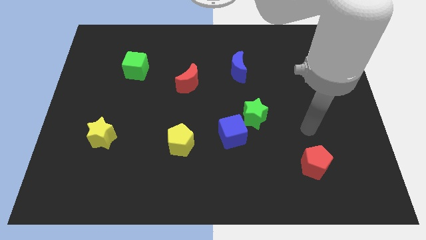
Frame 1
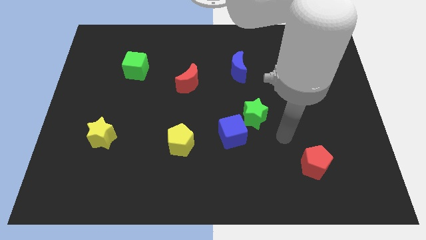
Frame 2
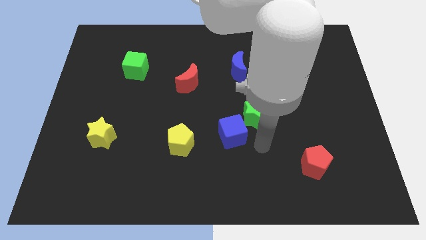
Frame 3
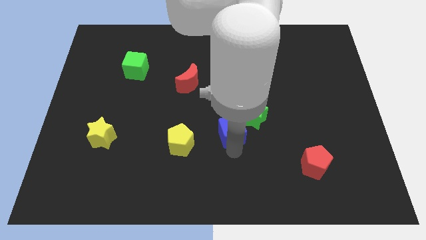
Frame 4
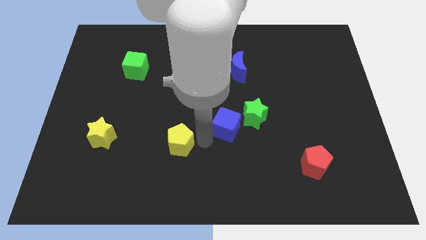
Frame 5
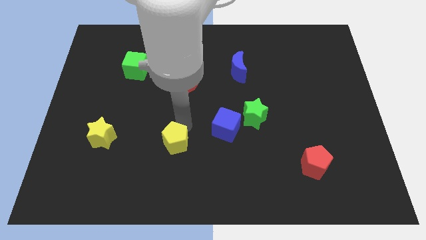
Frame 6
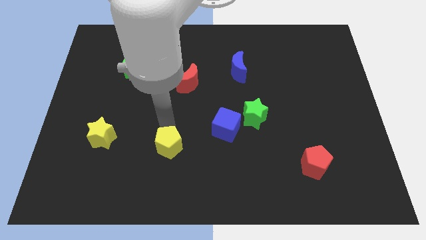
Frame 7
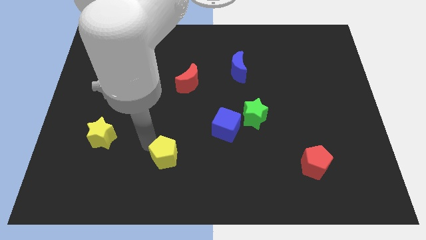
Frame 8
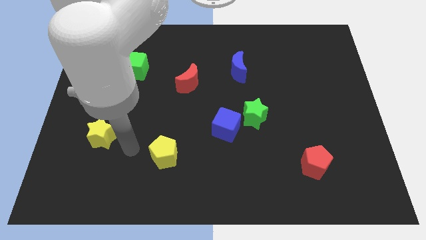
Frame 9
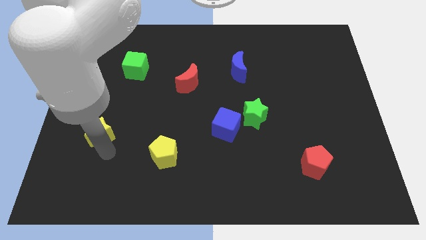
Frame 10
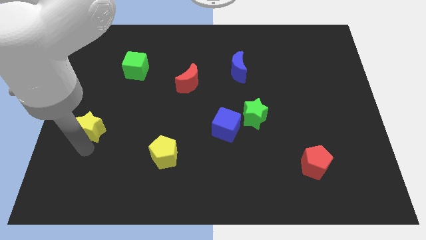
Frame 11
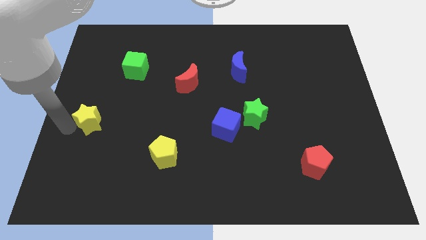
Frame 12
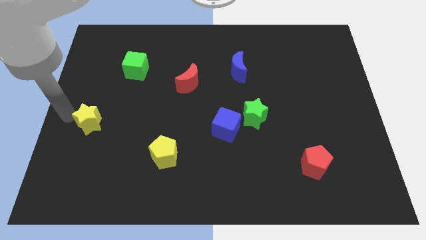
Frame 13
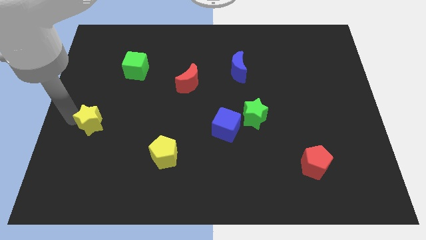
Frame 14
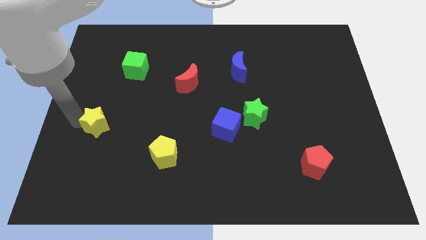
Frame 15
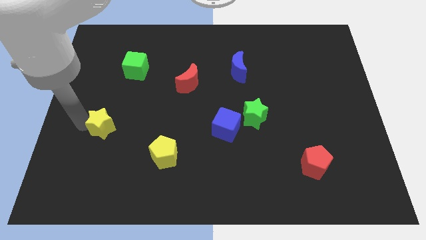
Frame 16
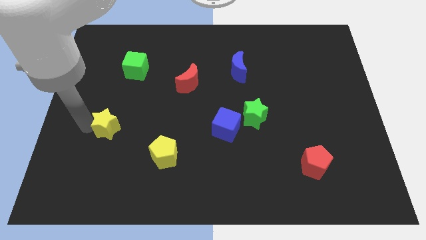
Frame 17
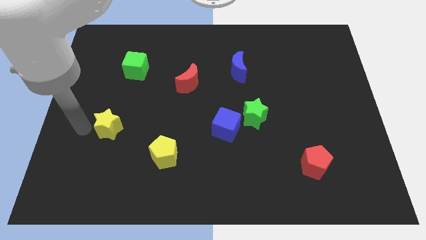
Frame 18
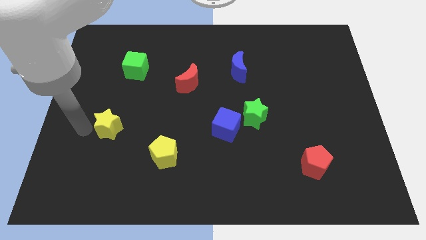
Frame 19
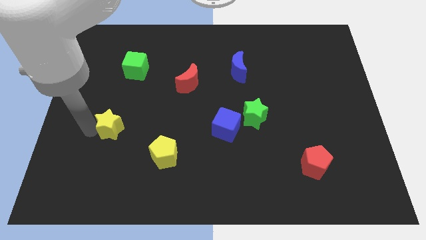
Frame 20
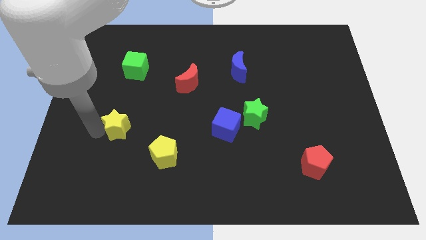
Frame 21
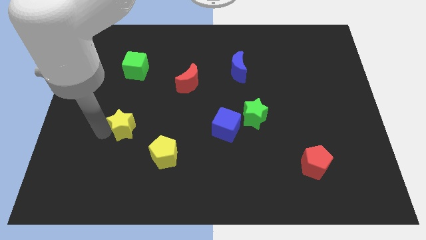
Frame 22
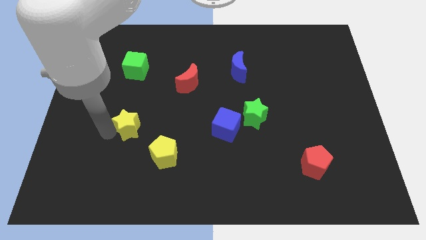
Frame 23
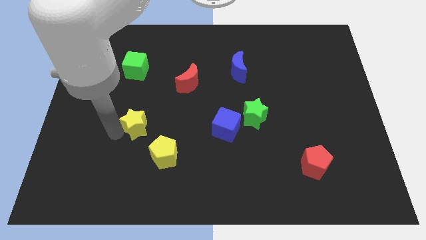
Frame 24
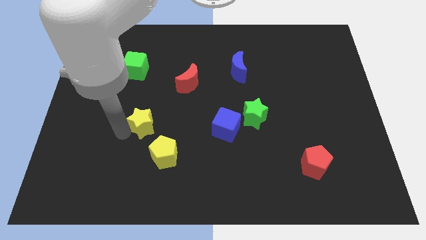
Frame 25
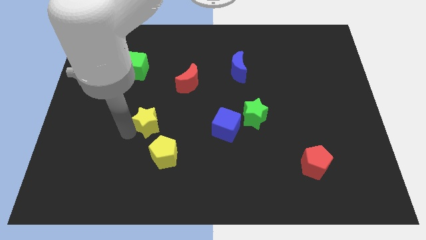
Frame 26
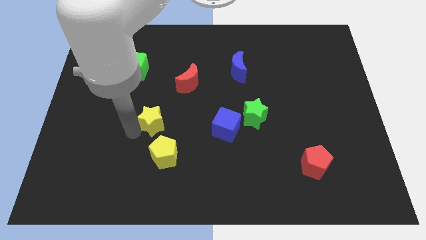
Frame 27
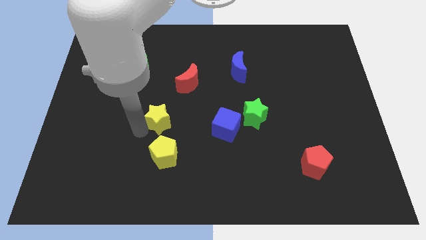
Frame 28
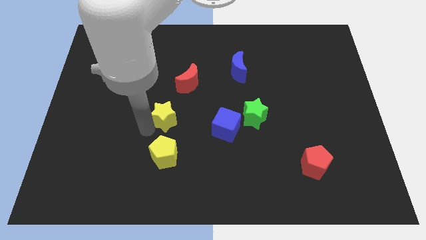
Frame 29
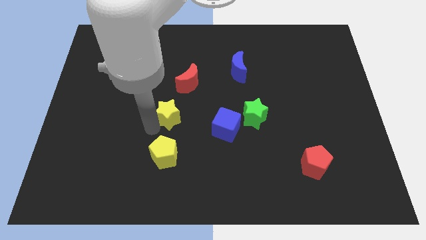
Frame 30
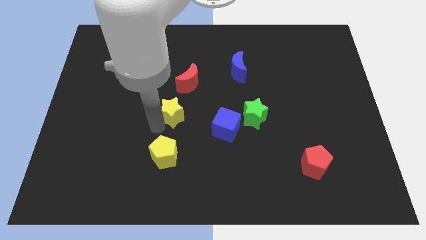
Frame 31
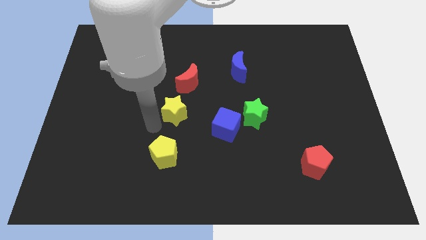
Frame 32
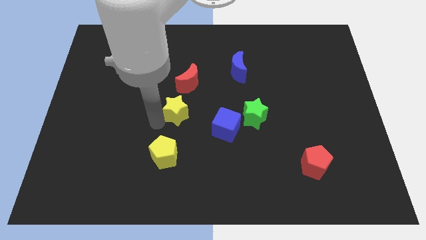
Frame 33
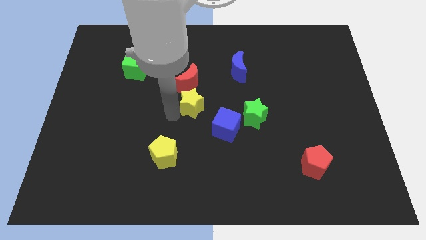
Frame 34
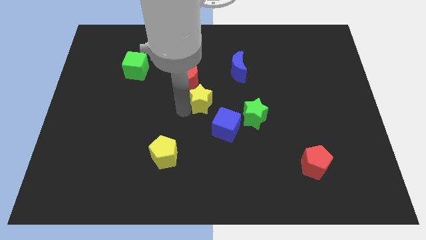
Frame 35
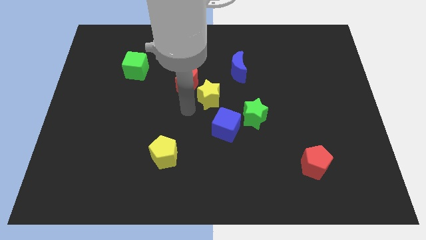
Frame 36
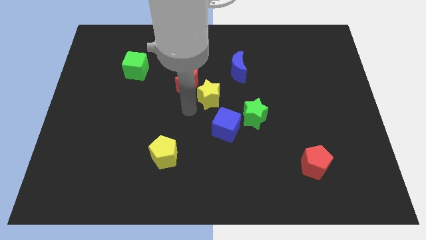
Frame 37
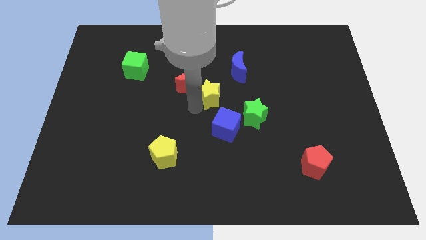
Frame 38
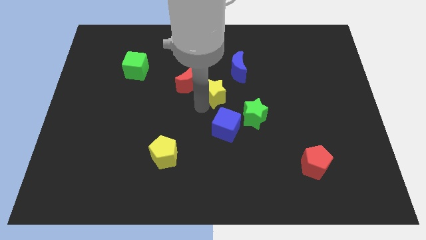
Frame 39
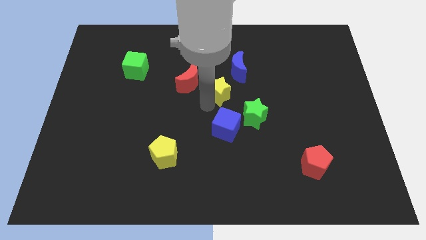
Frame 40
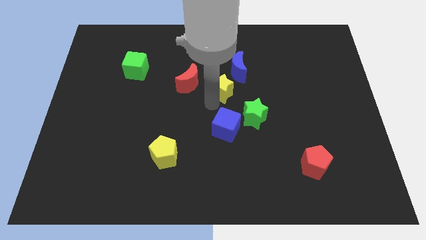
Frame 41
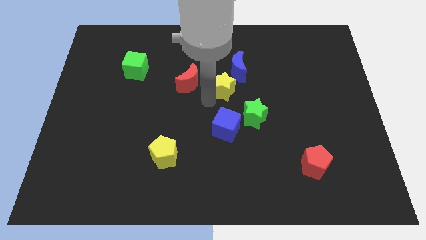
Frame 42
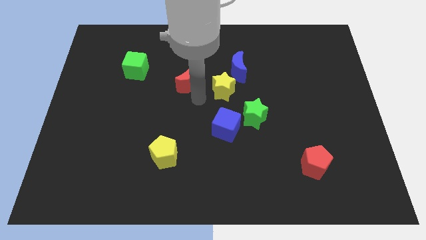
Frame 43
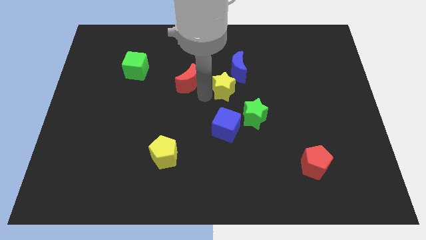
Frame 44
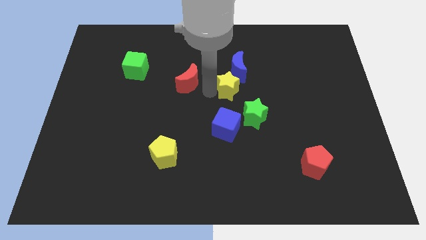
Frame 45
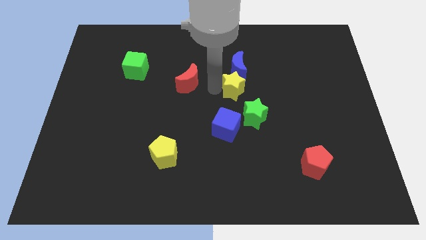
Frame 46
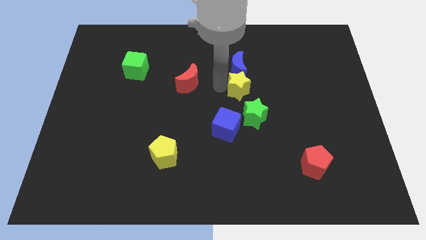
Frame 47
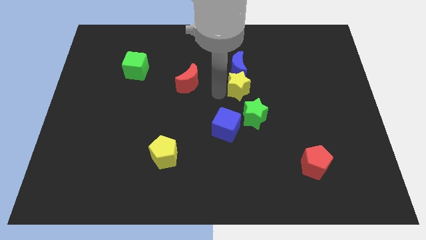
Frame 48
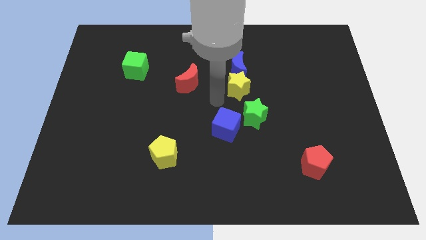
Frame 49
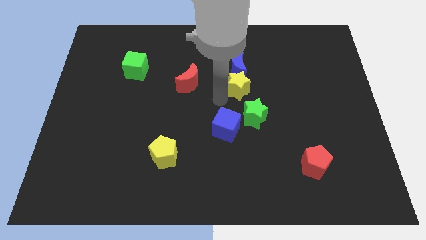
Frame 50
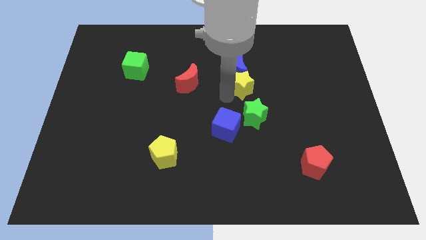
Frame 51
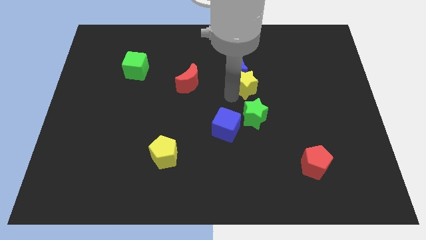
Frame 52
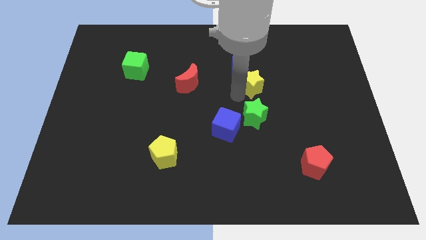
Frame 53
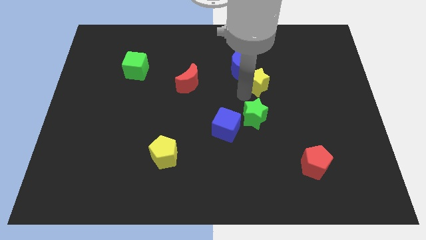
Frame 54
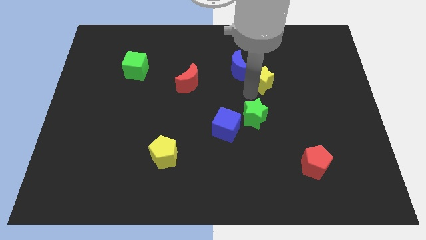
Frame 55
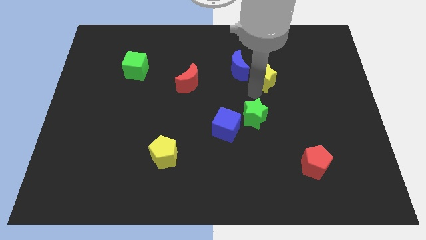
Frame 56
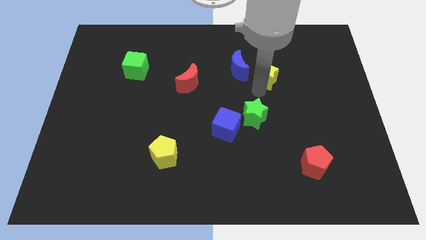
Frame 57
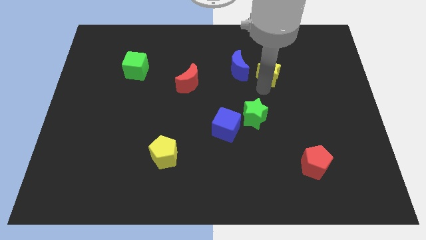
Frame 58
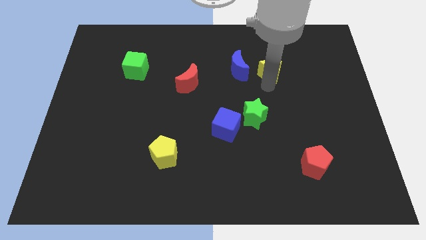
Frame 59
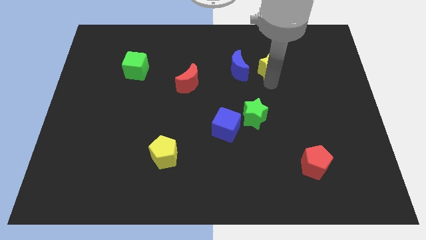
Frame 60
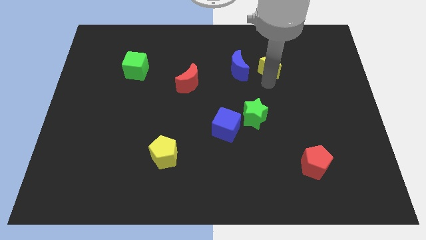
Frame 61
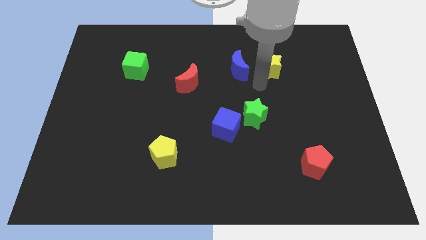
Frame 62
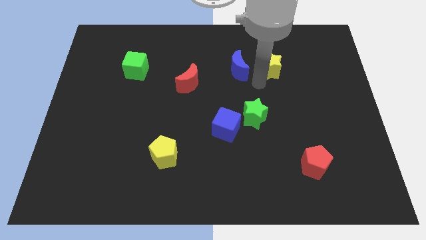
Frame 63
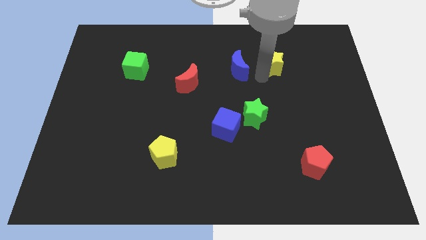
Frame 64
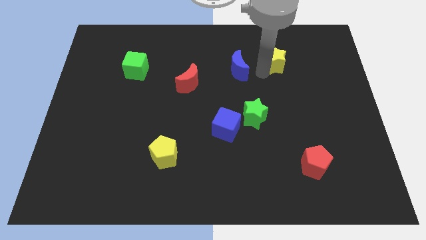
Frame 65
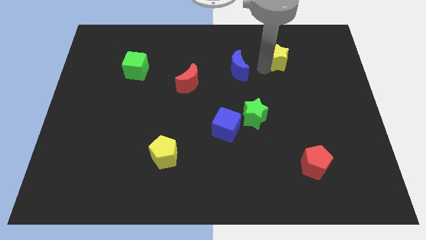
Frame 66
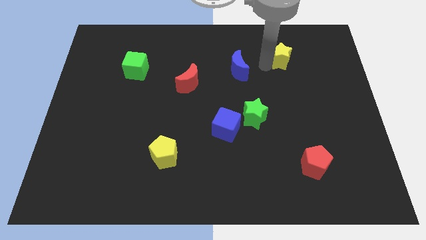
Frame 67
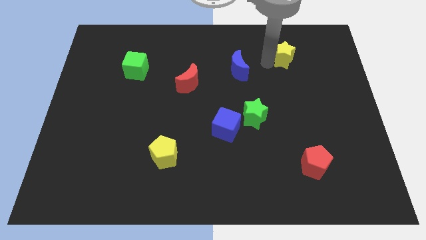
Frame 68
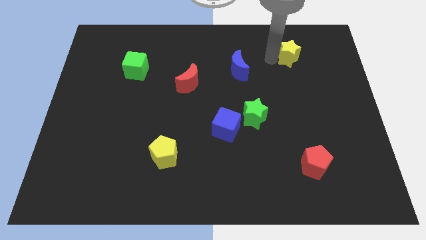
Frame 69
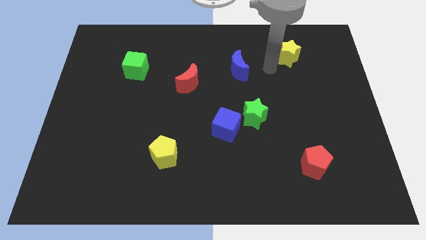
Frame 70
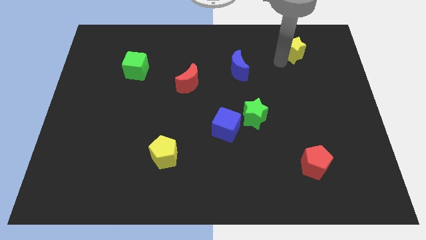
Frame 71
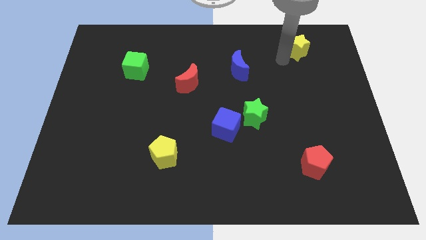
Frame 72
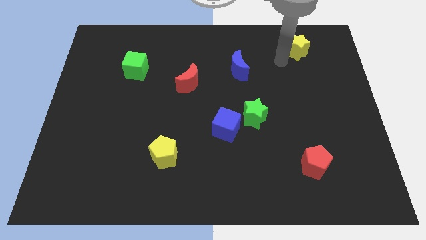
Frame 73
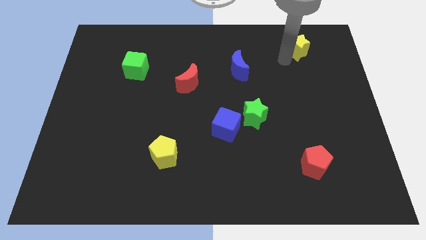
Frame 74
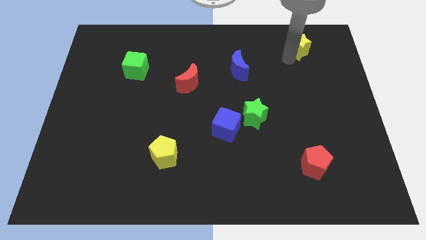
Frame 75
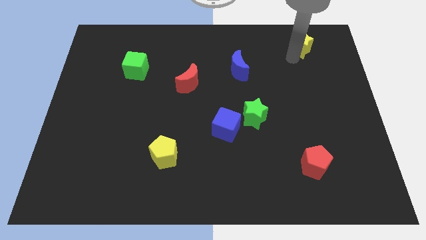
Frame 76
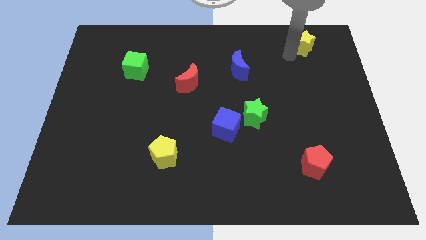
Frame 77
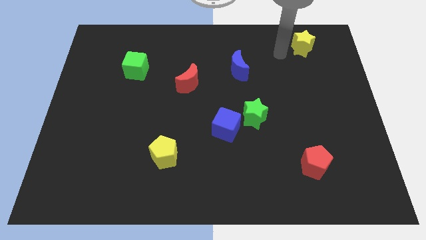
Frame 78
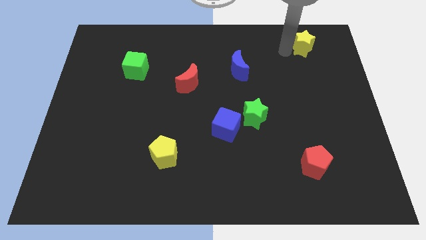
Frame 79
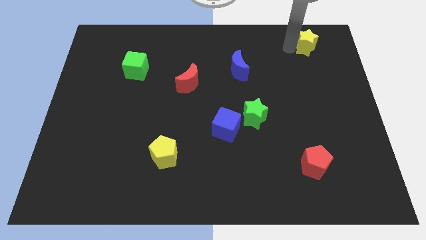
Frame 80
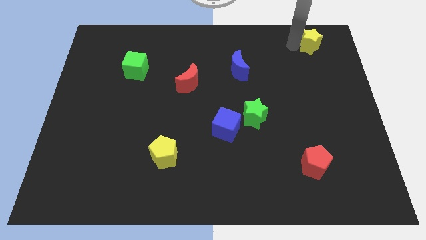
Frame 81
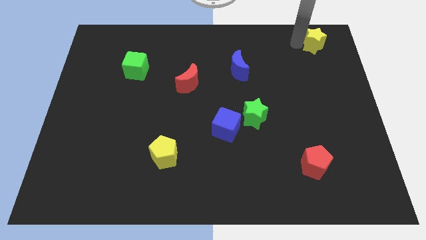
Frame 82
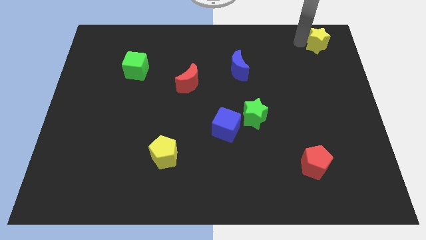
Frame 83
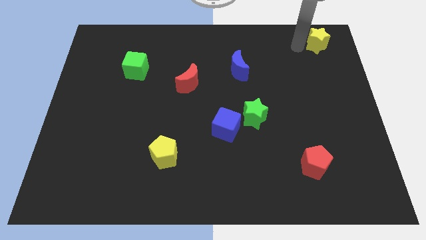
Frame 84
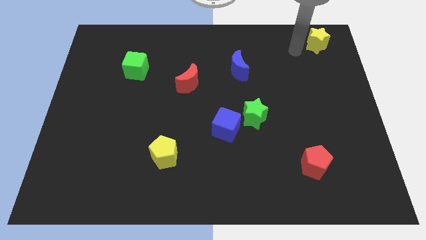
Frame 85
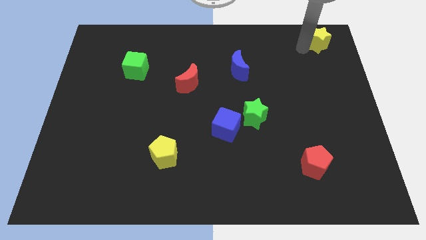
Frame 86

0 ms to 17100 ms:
move the yellow star to the top right of the board
